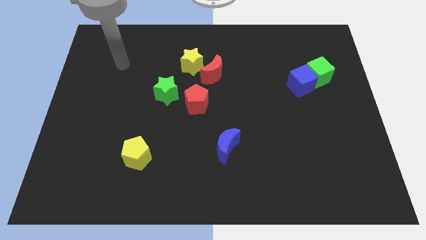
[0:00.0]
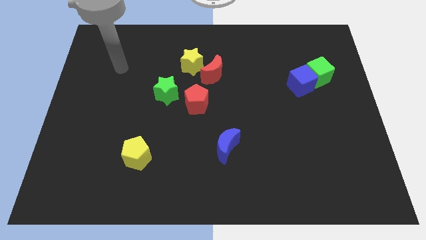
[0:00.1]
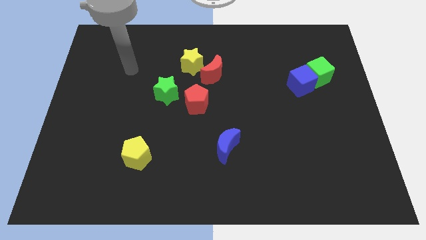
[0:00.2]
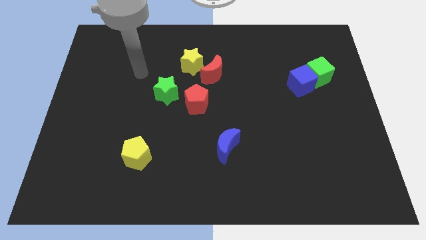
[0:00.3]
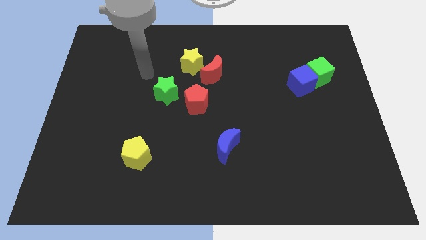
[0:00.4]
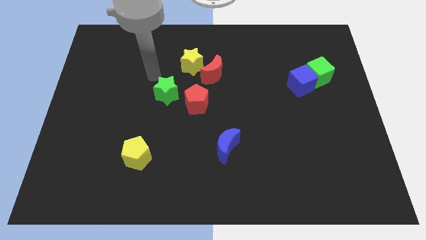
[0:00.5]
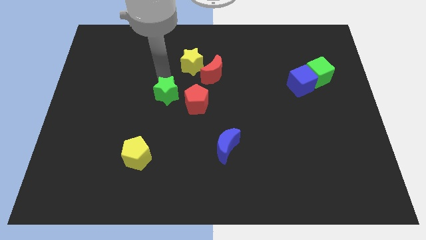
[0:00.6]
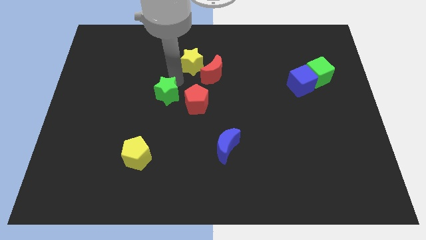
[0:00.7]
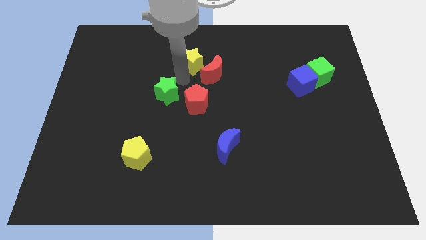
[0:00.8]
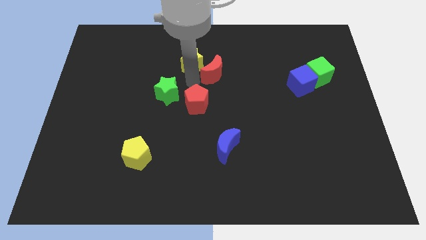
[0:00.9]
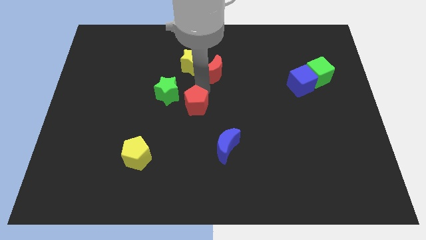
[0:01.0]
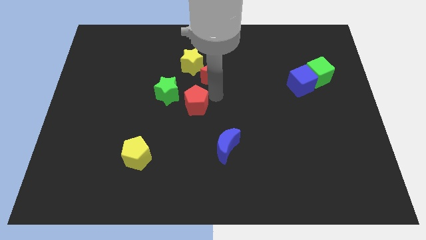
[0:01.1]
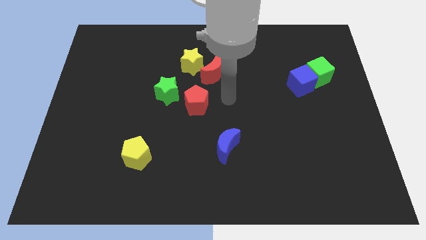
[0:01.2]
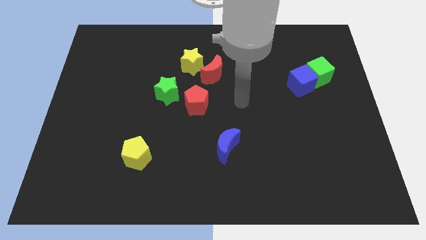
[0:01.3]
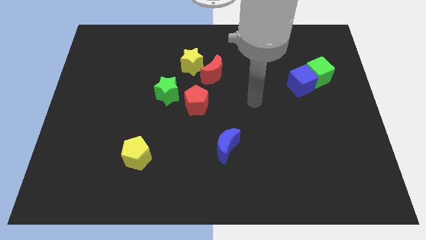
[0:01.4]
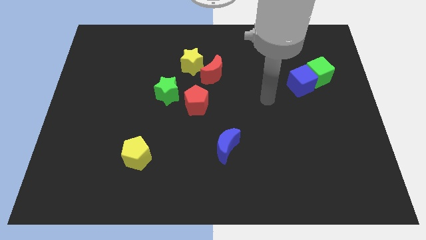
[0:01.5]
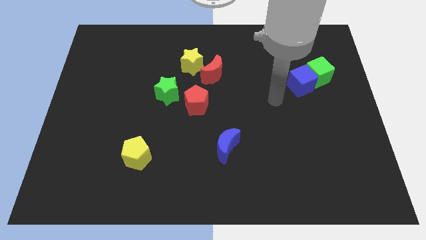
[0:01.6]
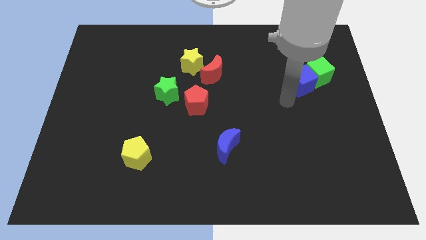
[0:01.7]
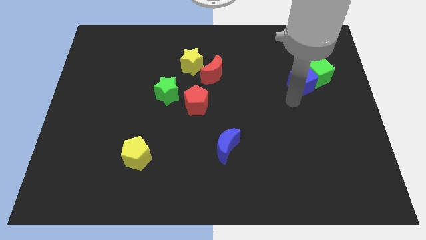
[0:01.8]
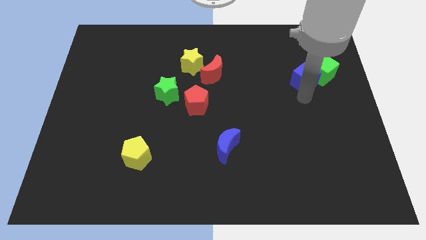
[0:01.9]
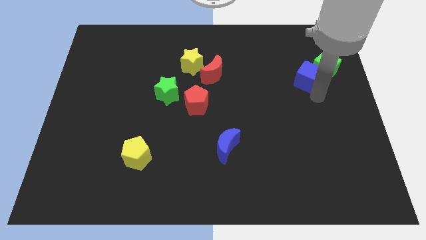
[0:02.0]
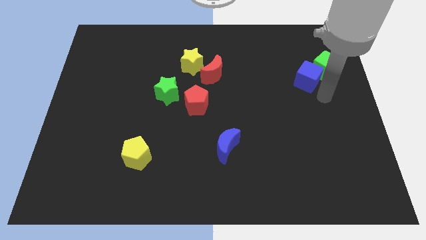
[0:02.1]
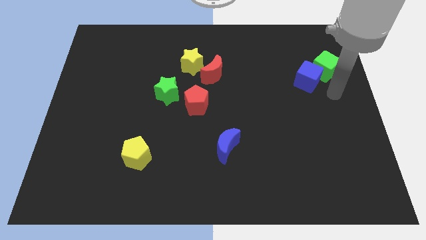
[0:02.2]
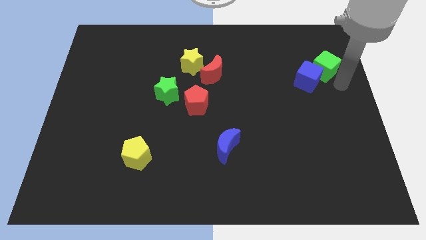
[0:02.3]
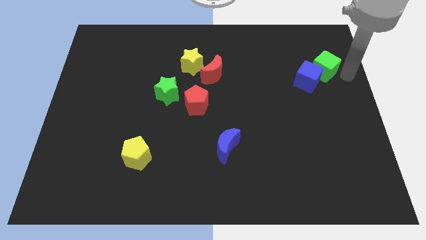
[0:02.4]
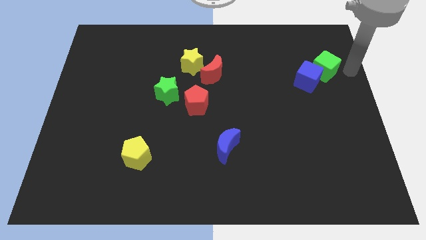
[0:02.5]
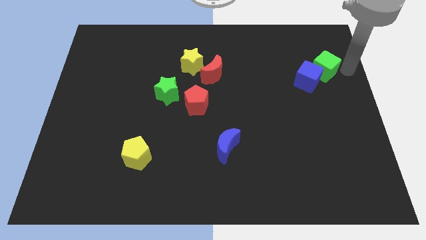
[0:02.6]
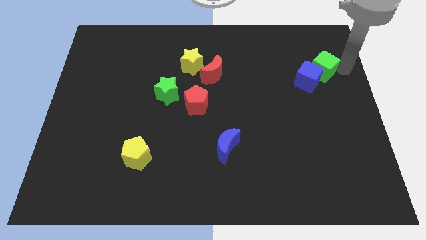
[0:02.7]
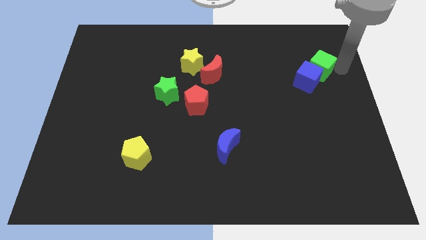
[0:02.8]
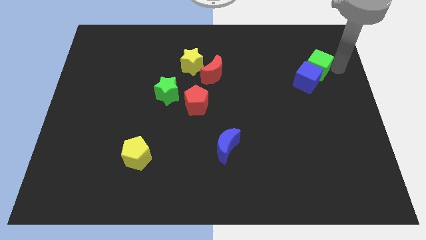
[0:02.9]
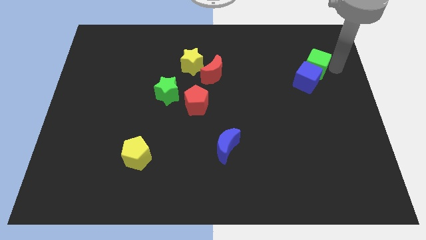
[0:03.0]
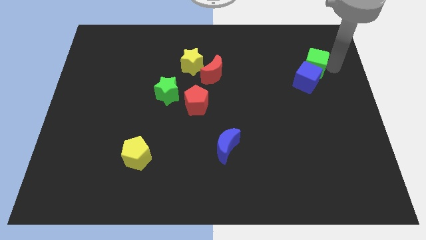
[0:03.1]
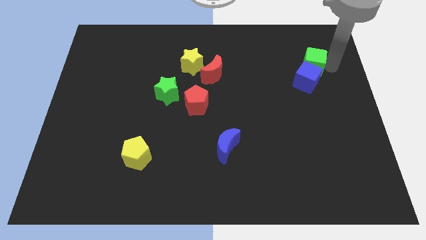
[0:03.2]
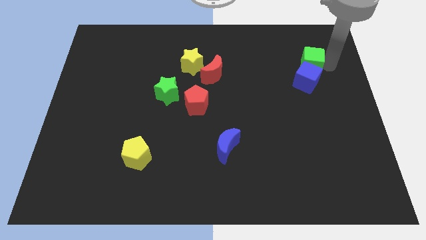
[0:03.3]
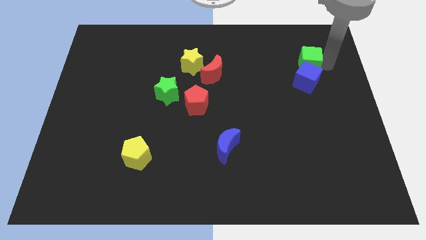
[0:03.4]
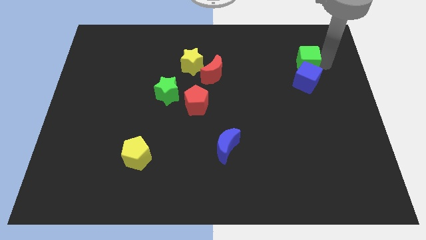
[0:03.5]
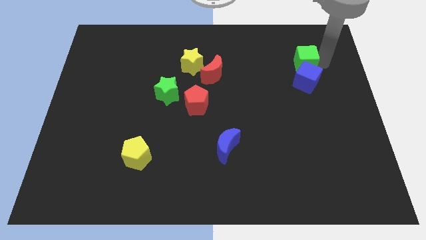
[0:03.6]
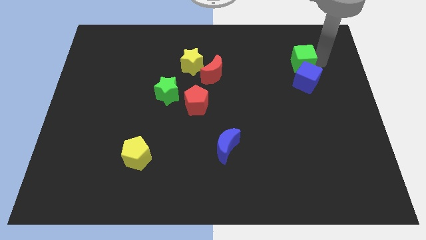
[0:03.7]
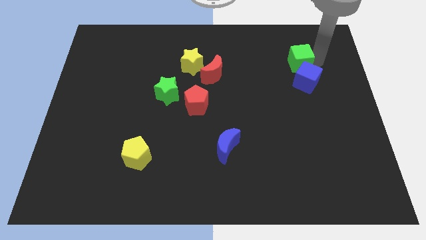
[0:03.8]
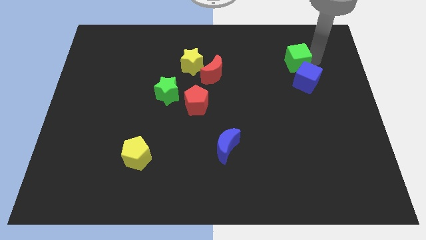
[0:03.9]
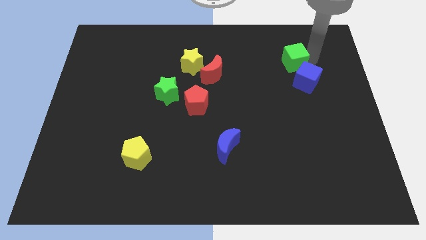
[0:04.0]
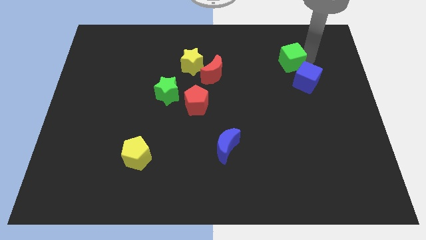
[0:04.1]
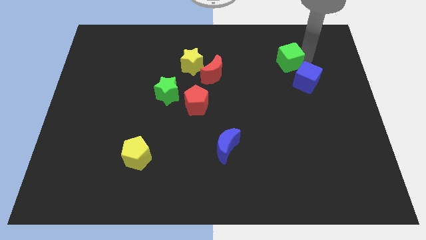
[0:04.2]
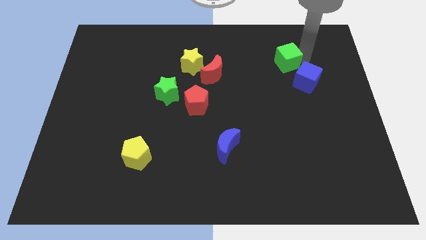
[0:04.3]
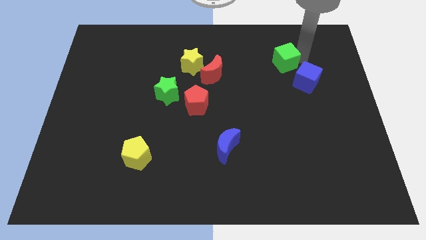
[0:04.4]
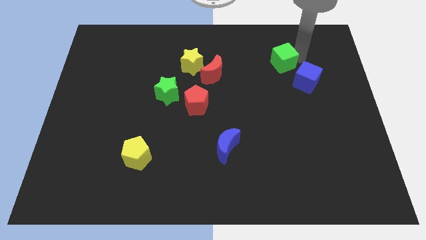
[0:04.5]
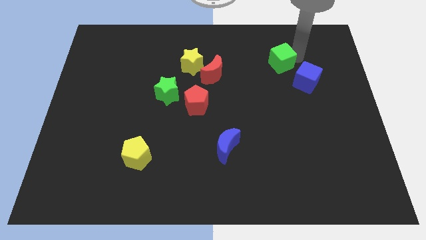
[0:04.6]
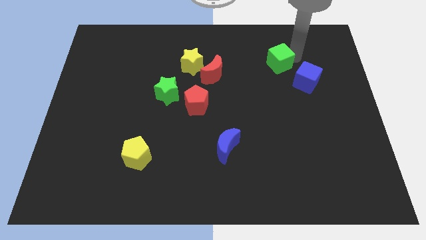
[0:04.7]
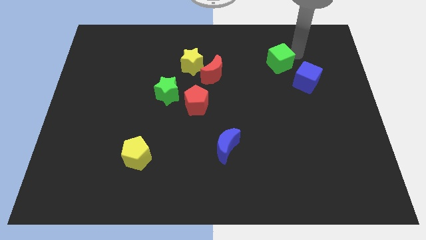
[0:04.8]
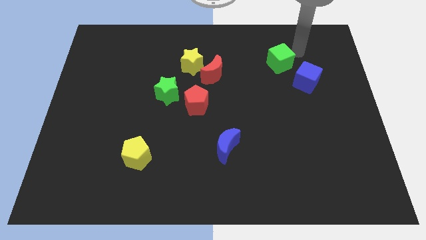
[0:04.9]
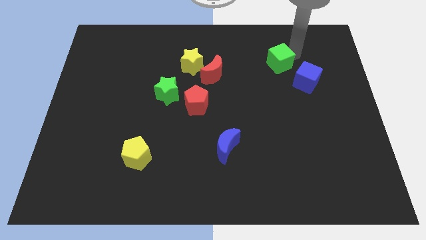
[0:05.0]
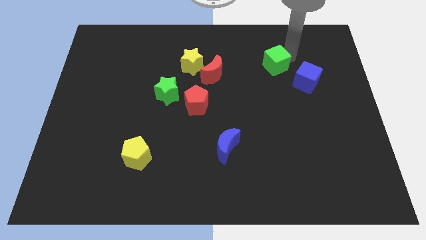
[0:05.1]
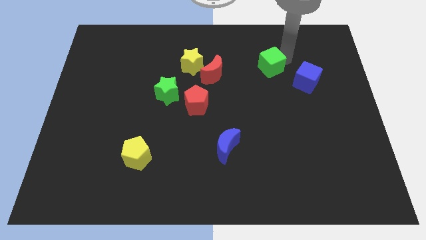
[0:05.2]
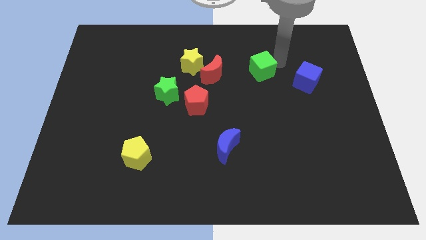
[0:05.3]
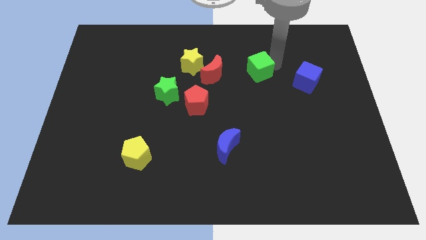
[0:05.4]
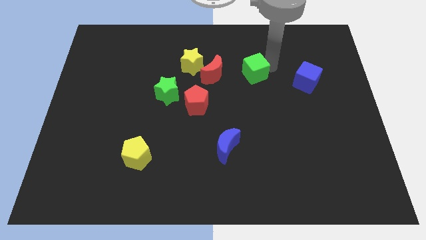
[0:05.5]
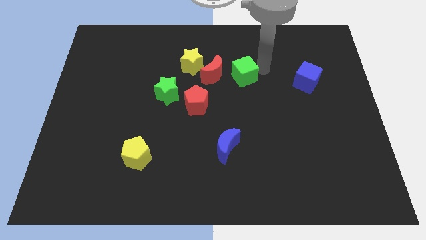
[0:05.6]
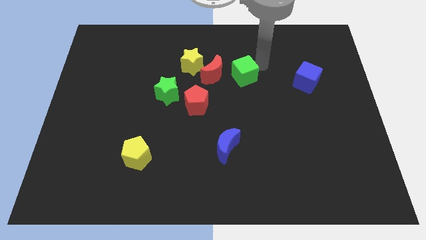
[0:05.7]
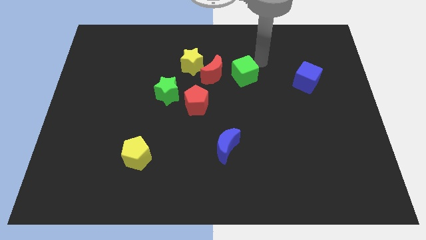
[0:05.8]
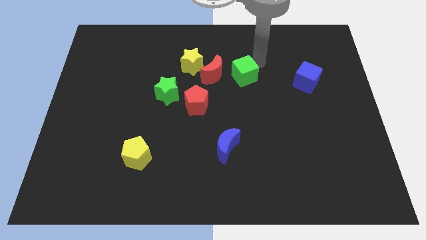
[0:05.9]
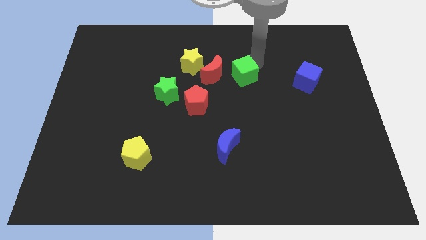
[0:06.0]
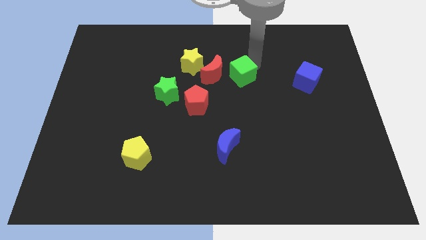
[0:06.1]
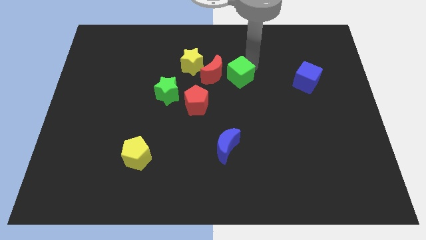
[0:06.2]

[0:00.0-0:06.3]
push the green cube left

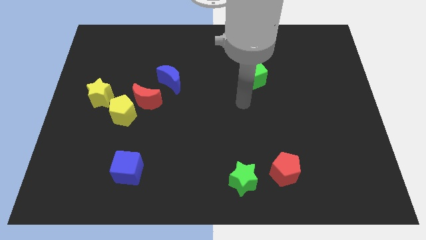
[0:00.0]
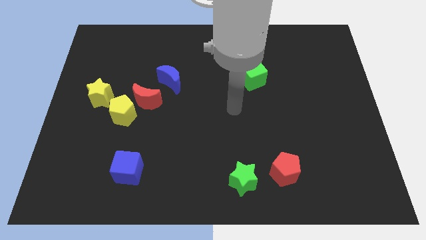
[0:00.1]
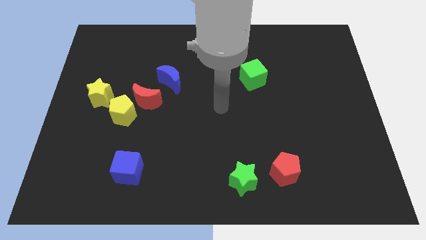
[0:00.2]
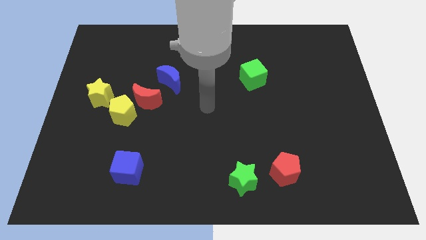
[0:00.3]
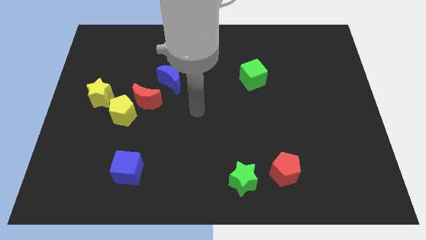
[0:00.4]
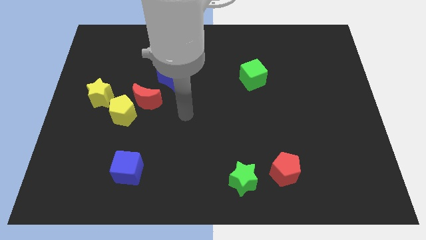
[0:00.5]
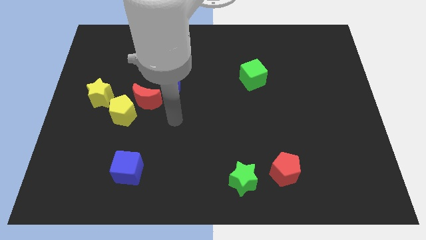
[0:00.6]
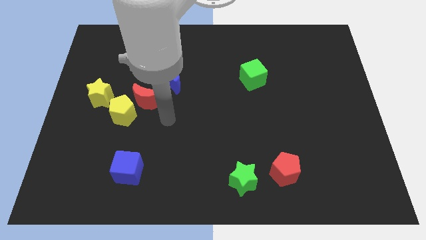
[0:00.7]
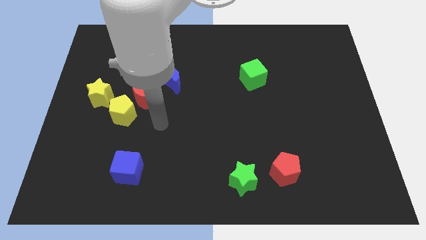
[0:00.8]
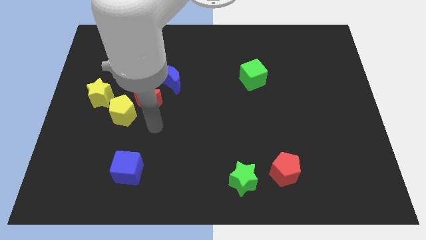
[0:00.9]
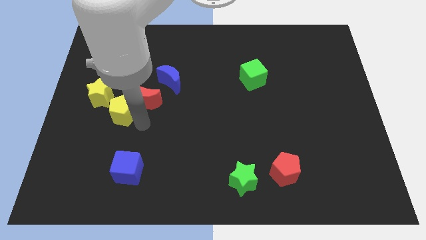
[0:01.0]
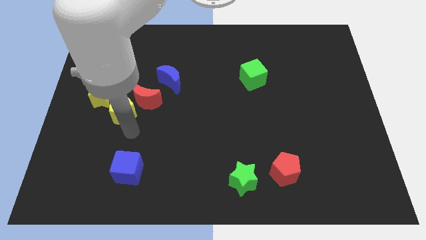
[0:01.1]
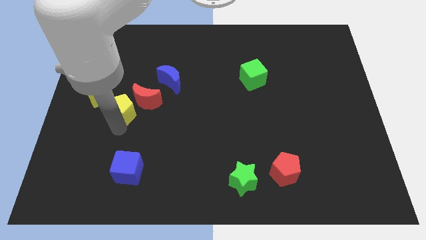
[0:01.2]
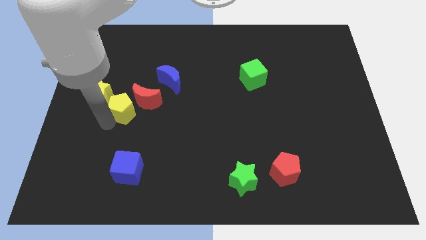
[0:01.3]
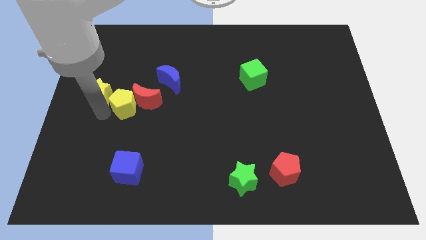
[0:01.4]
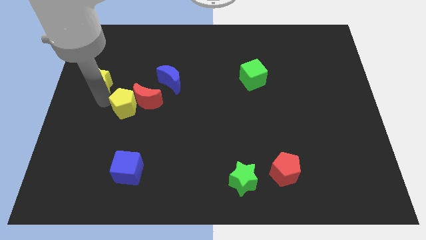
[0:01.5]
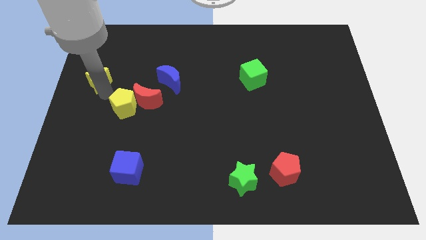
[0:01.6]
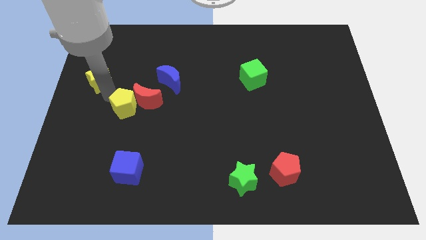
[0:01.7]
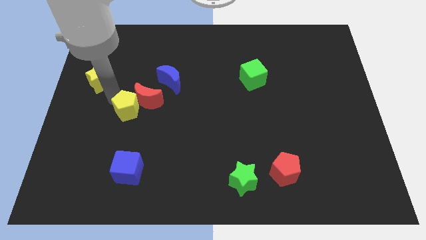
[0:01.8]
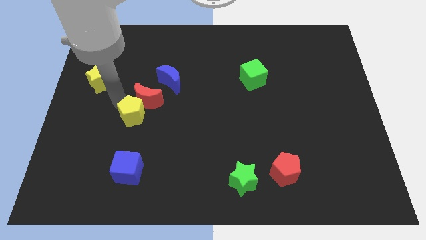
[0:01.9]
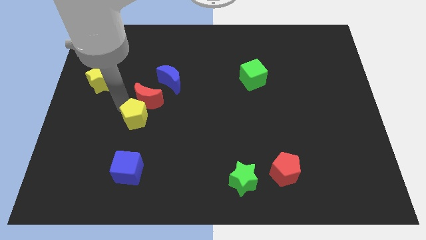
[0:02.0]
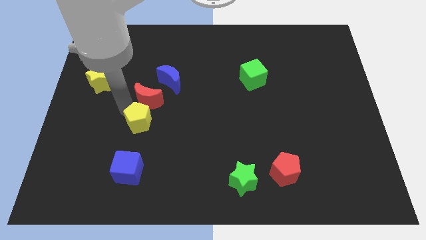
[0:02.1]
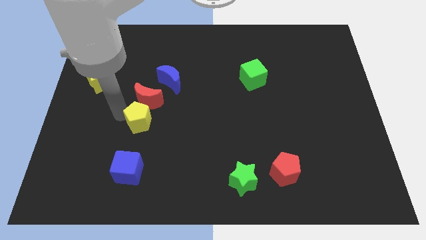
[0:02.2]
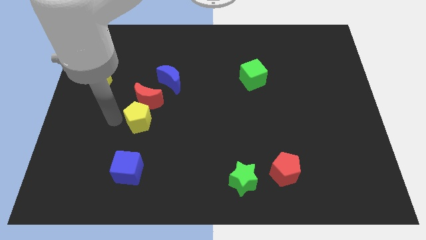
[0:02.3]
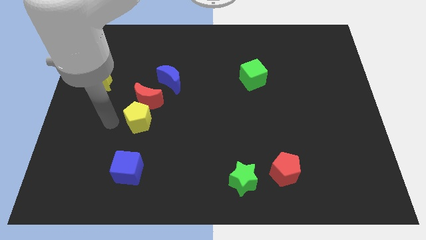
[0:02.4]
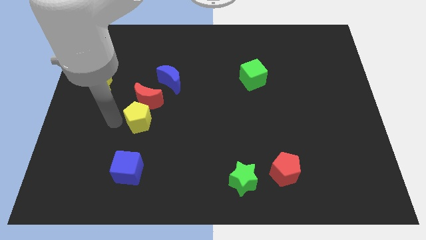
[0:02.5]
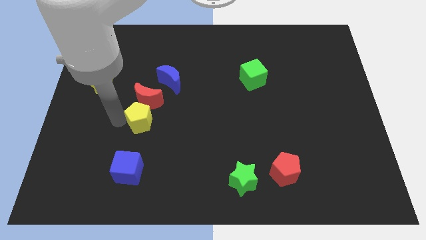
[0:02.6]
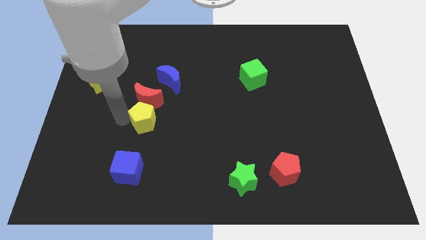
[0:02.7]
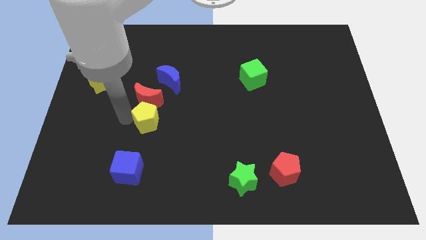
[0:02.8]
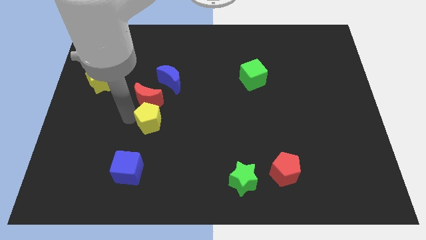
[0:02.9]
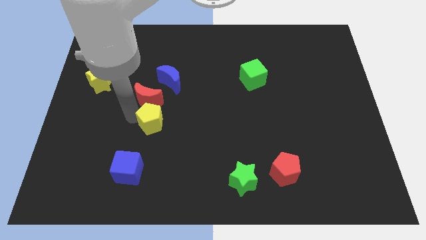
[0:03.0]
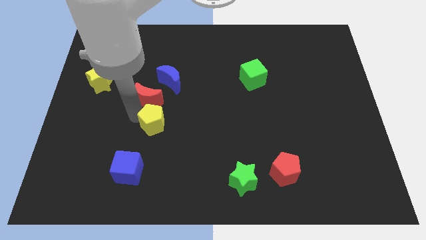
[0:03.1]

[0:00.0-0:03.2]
slide the yellow pentagon to the right slightly
